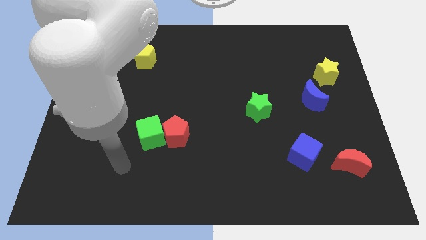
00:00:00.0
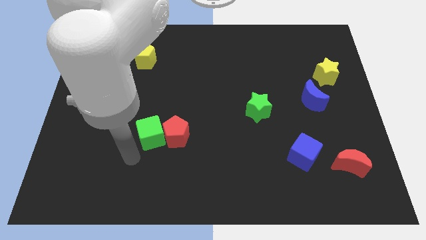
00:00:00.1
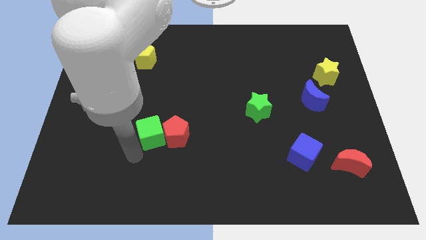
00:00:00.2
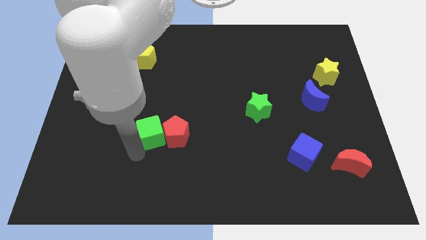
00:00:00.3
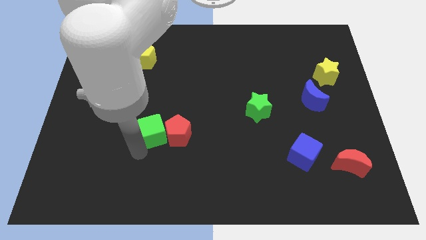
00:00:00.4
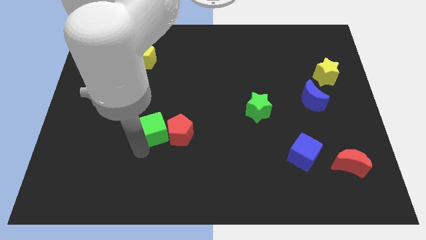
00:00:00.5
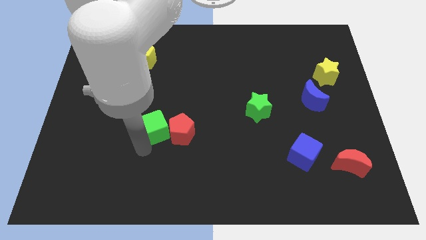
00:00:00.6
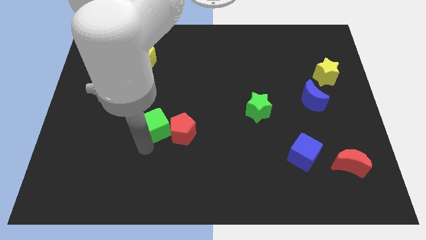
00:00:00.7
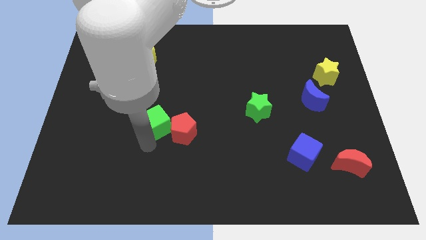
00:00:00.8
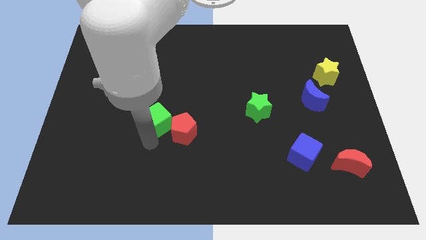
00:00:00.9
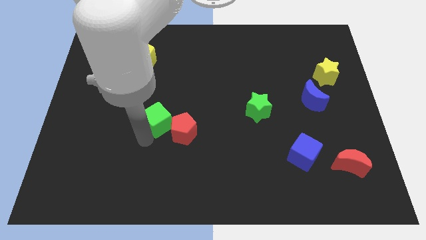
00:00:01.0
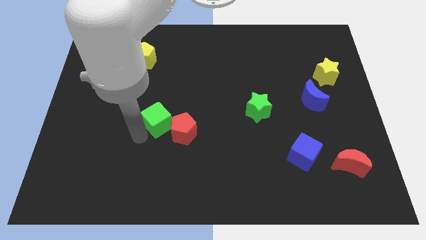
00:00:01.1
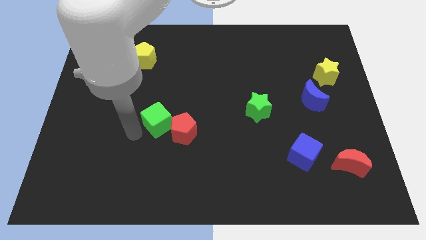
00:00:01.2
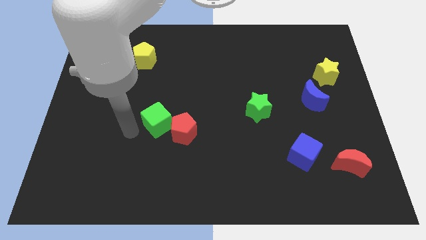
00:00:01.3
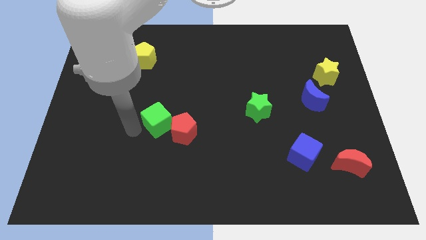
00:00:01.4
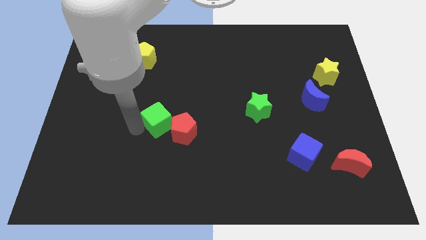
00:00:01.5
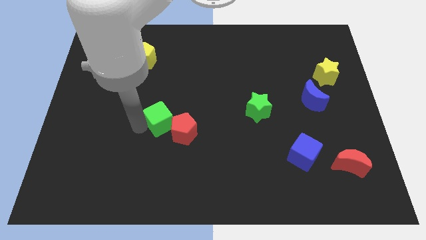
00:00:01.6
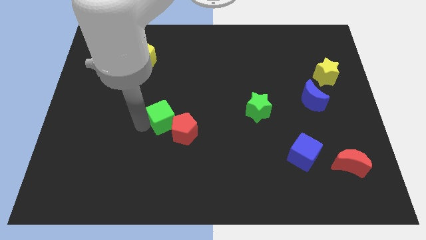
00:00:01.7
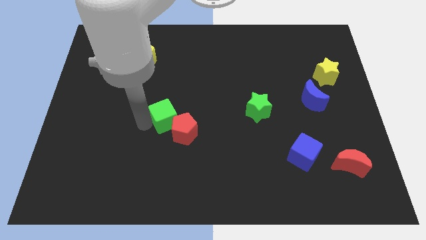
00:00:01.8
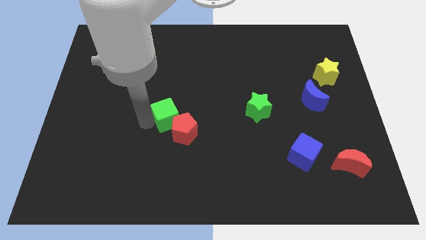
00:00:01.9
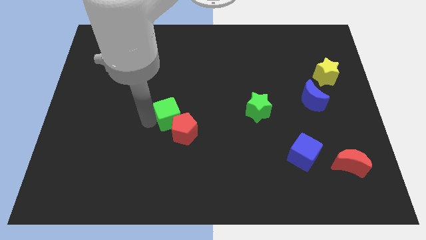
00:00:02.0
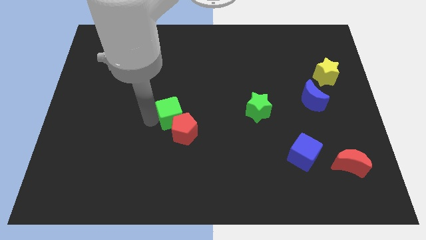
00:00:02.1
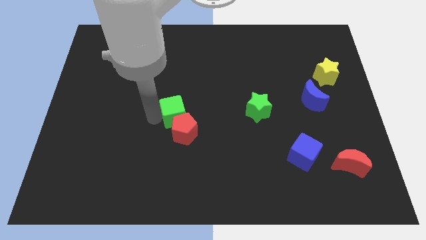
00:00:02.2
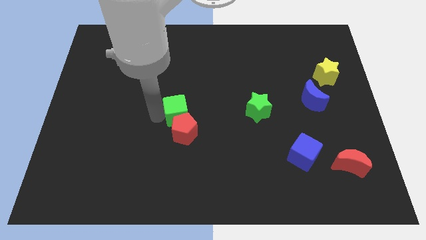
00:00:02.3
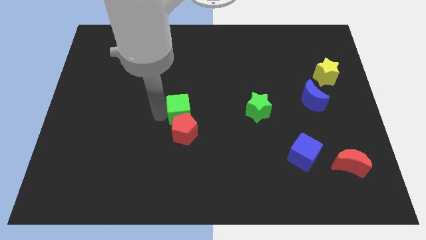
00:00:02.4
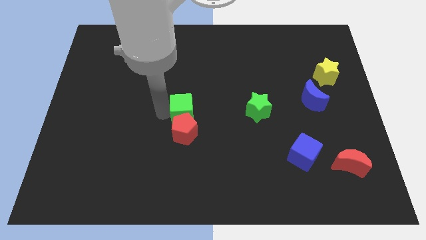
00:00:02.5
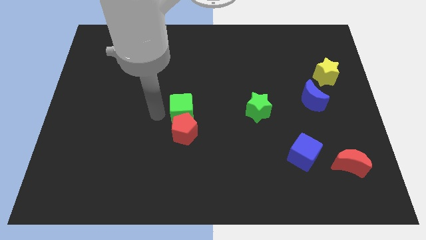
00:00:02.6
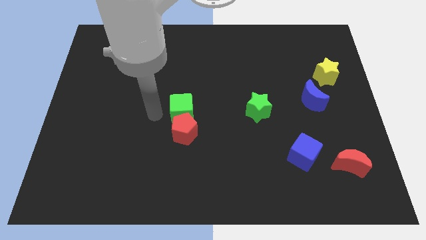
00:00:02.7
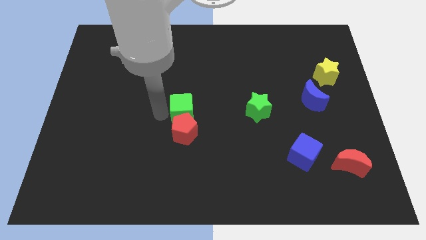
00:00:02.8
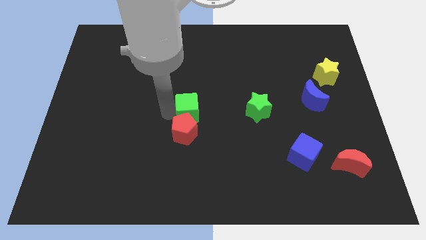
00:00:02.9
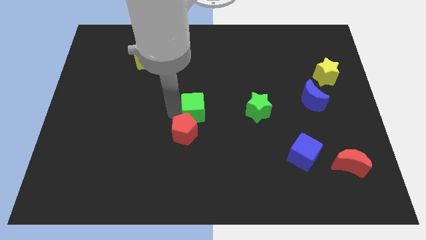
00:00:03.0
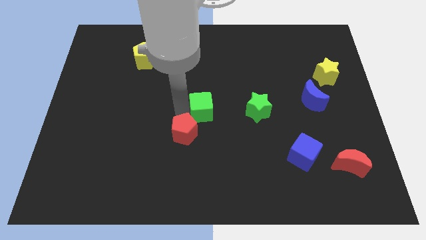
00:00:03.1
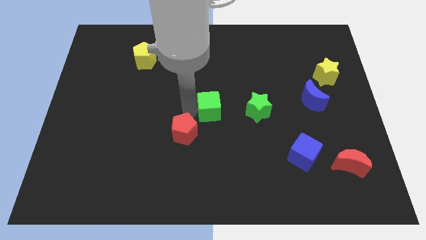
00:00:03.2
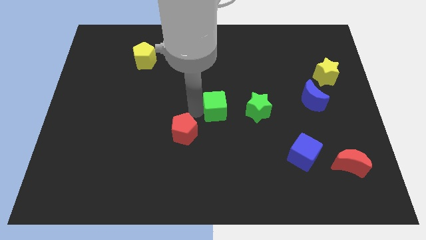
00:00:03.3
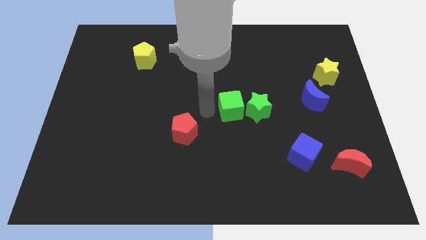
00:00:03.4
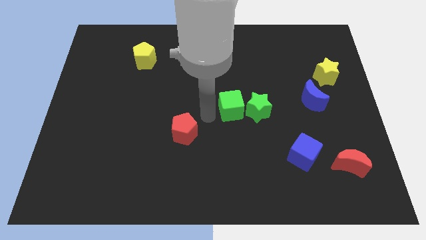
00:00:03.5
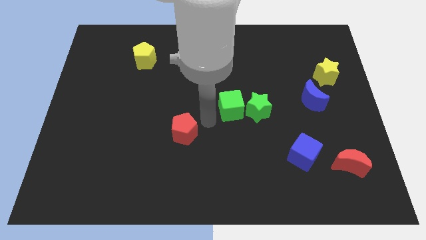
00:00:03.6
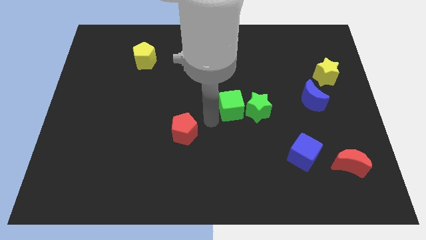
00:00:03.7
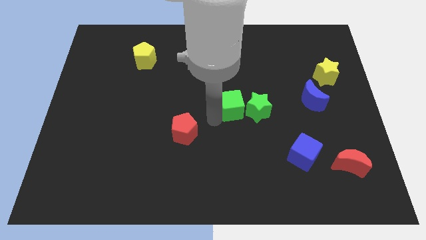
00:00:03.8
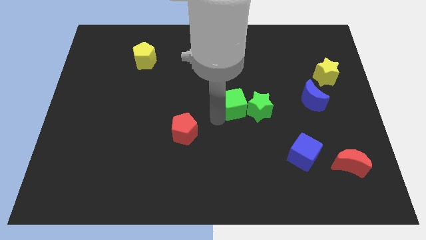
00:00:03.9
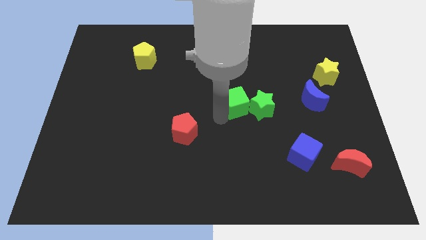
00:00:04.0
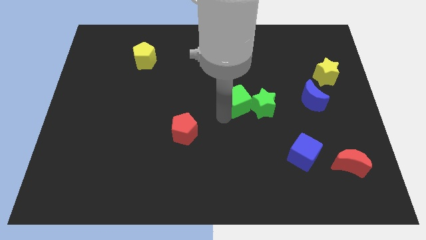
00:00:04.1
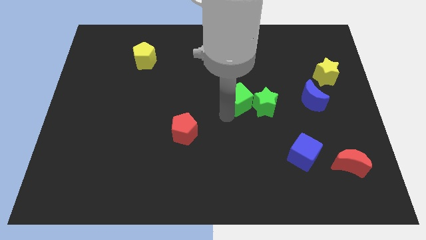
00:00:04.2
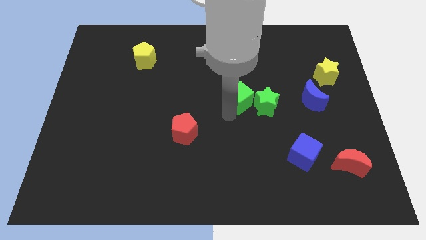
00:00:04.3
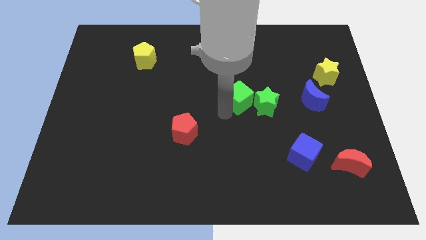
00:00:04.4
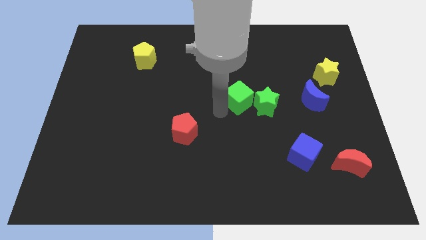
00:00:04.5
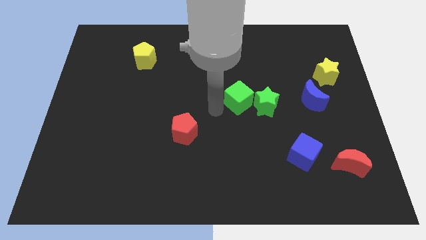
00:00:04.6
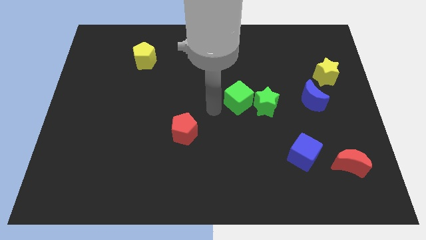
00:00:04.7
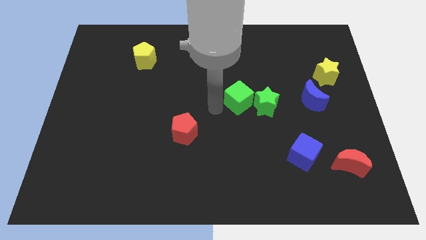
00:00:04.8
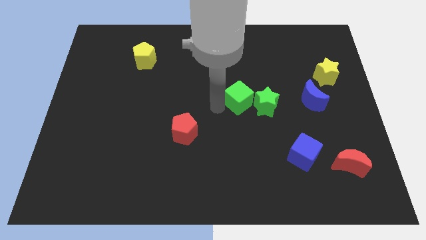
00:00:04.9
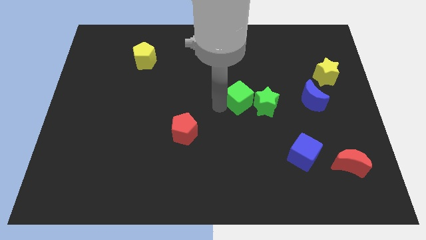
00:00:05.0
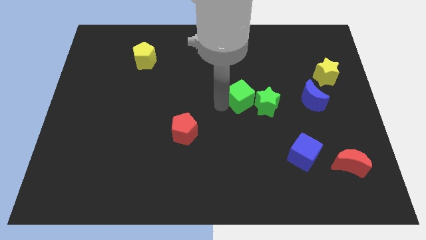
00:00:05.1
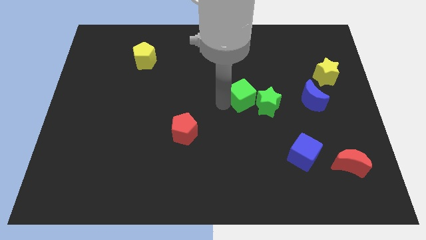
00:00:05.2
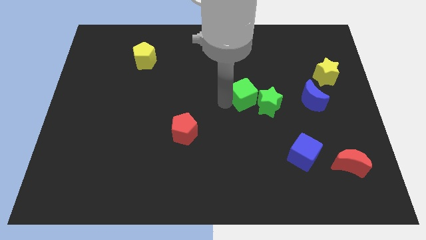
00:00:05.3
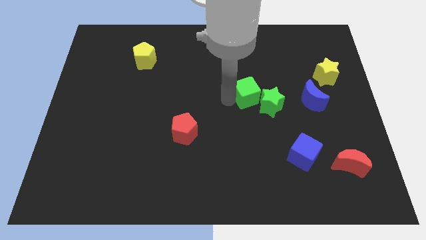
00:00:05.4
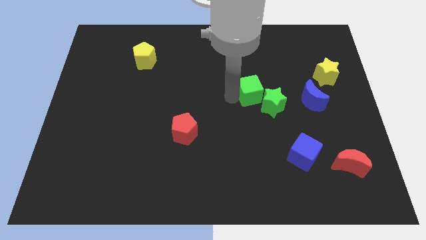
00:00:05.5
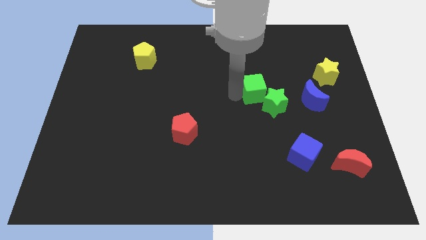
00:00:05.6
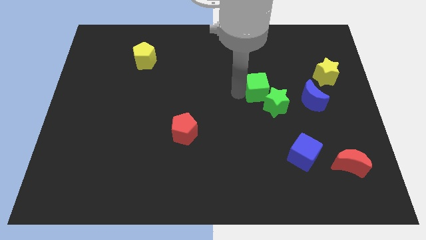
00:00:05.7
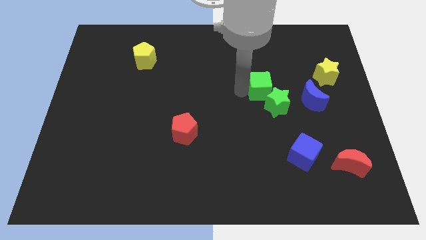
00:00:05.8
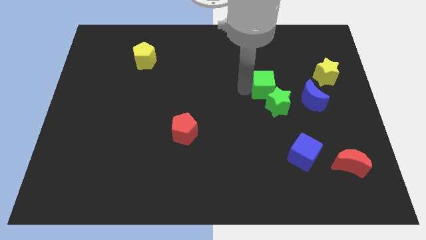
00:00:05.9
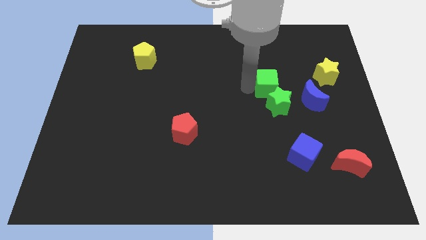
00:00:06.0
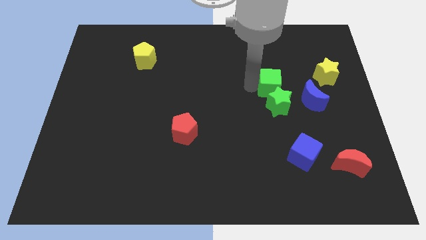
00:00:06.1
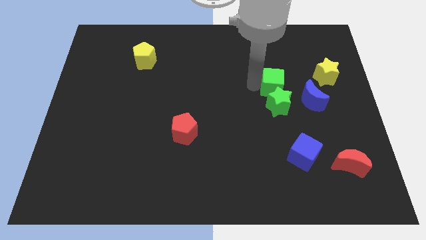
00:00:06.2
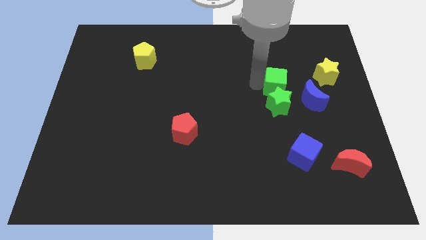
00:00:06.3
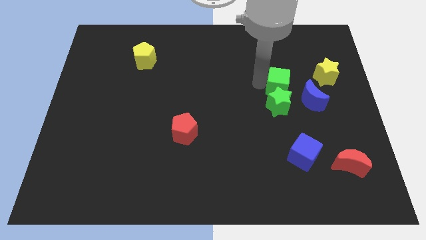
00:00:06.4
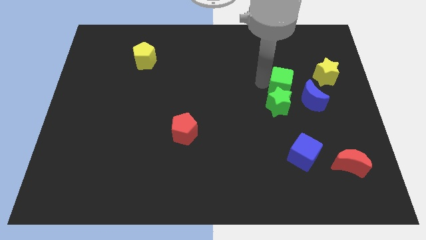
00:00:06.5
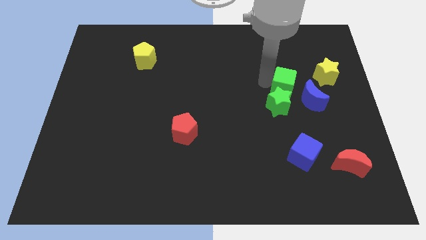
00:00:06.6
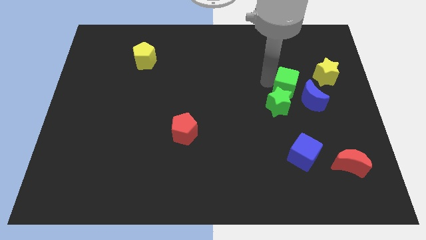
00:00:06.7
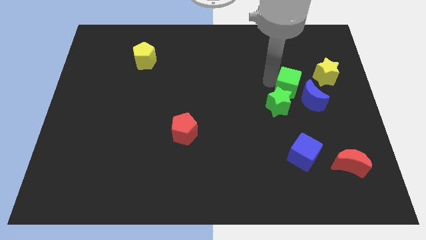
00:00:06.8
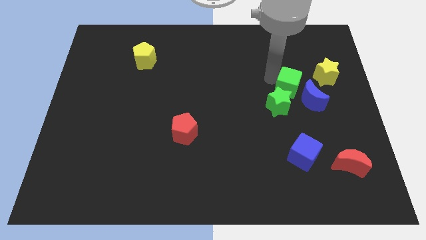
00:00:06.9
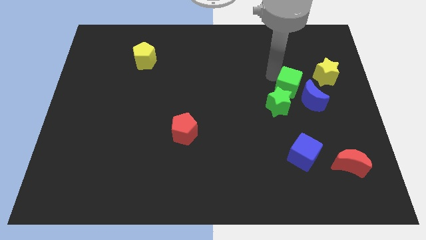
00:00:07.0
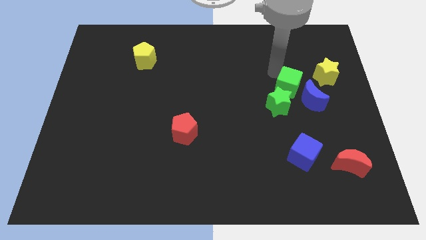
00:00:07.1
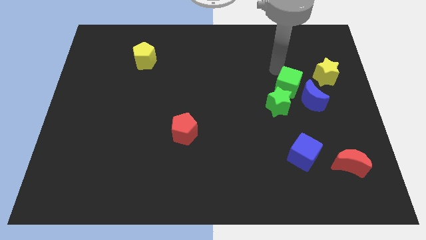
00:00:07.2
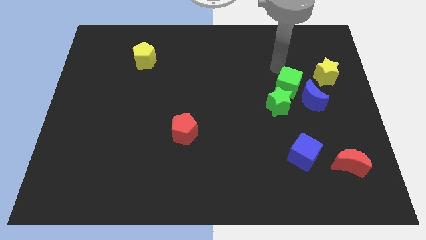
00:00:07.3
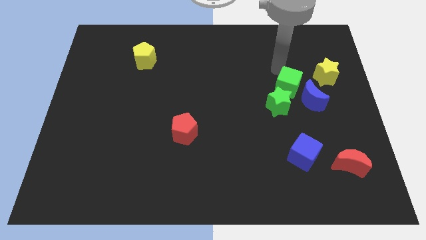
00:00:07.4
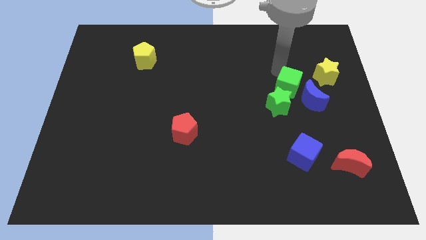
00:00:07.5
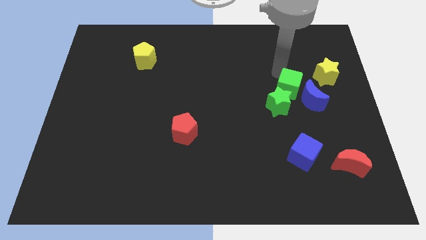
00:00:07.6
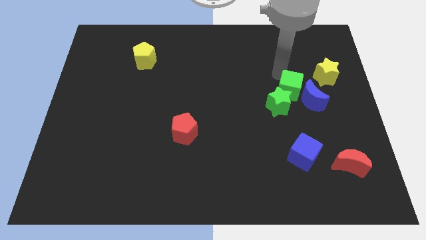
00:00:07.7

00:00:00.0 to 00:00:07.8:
slide the green cube to the blue moon
